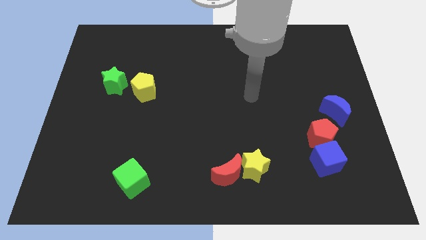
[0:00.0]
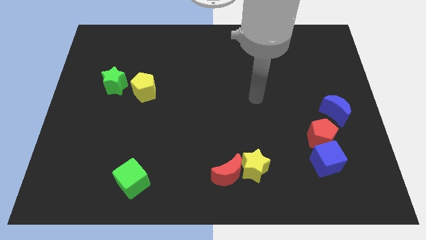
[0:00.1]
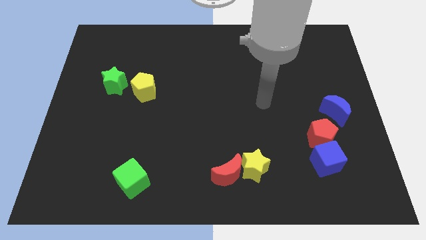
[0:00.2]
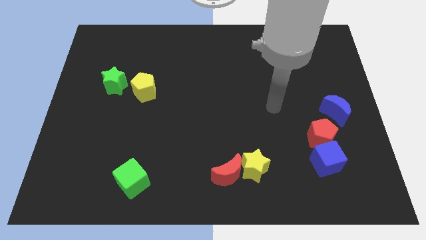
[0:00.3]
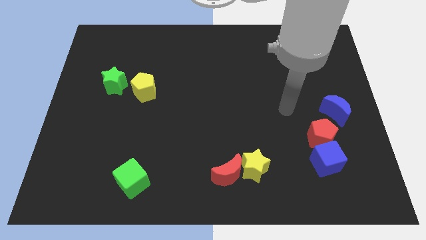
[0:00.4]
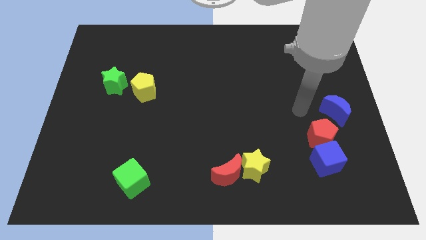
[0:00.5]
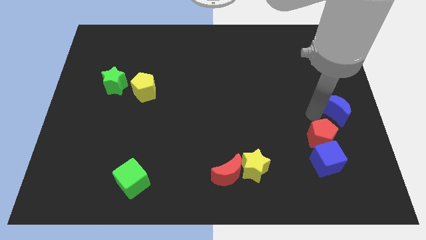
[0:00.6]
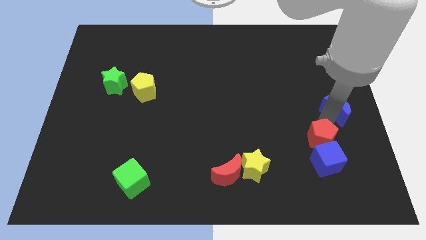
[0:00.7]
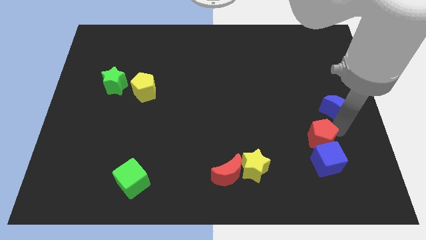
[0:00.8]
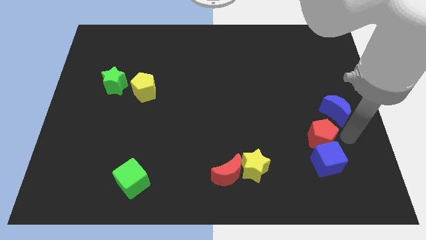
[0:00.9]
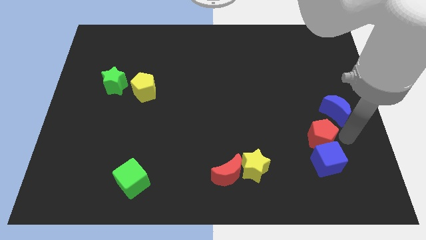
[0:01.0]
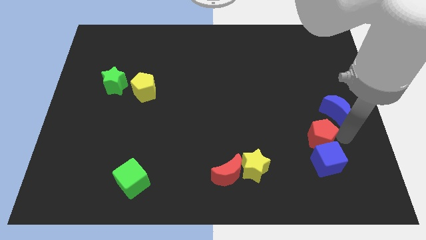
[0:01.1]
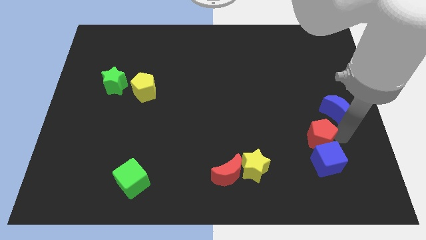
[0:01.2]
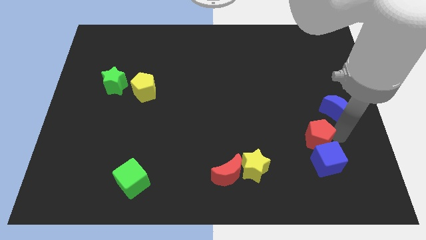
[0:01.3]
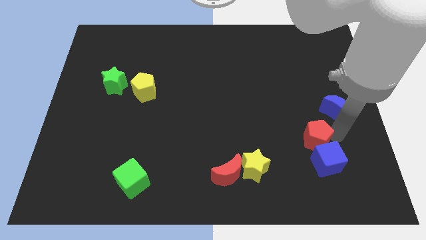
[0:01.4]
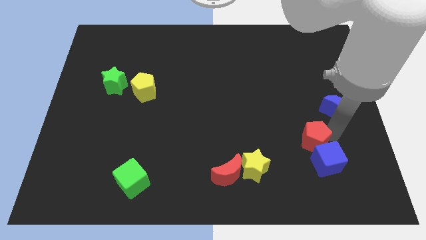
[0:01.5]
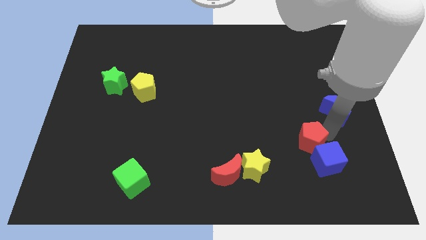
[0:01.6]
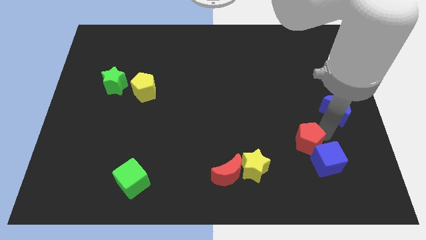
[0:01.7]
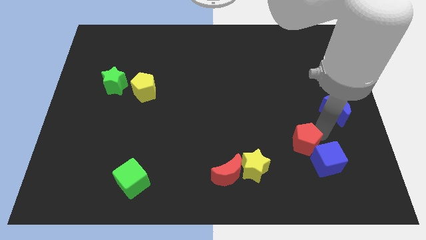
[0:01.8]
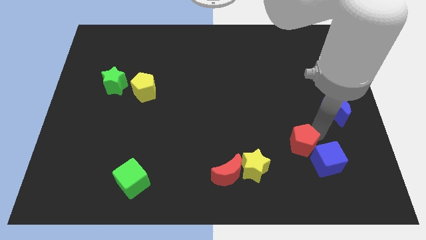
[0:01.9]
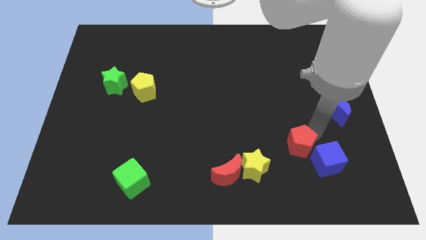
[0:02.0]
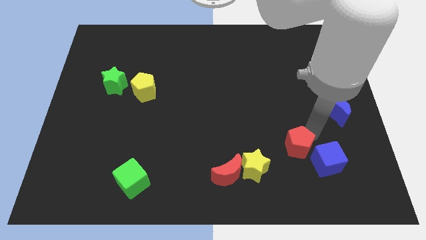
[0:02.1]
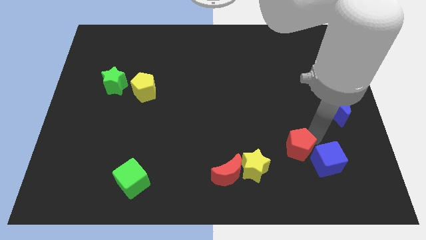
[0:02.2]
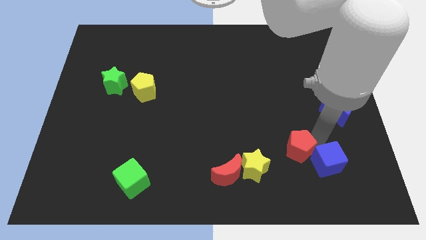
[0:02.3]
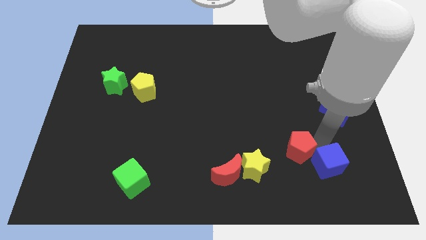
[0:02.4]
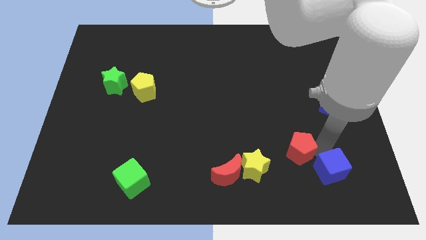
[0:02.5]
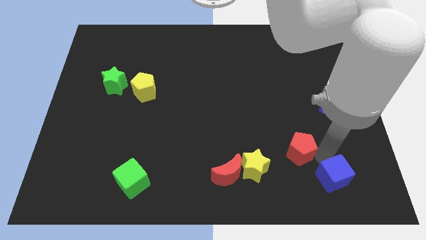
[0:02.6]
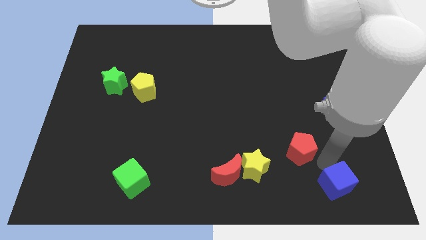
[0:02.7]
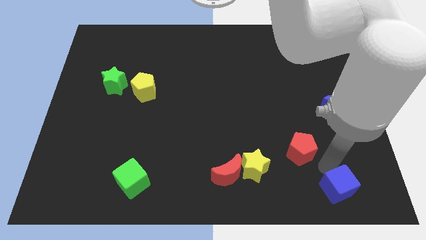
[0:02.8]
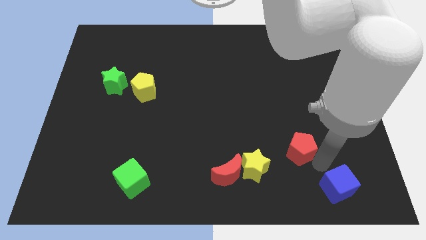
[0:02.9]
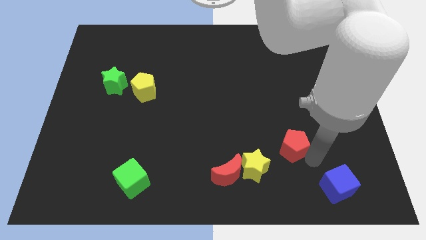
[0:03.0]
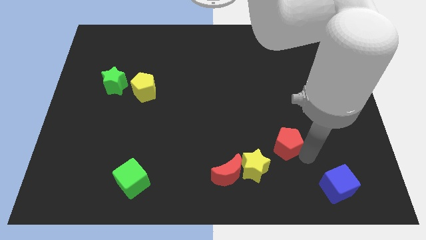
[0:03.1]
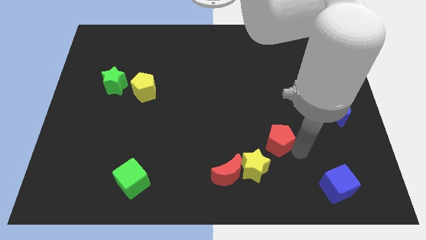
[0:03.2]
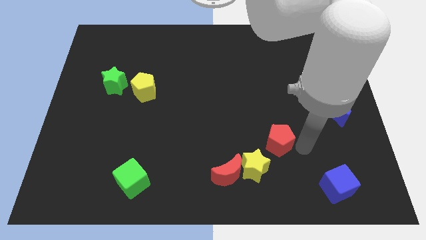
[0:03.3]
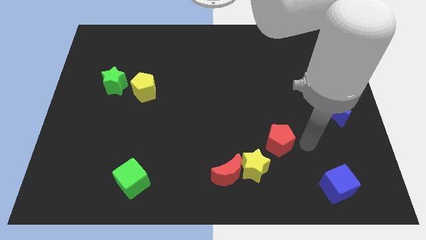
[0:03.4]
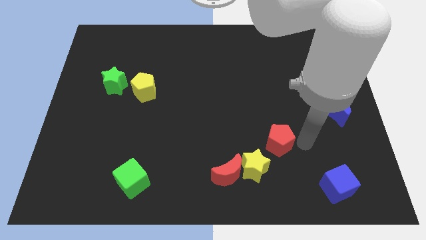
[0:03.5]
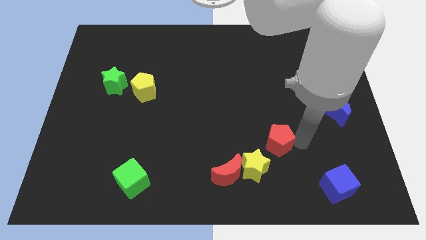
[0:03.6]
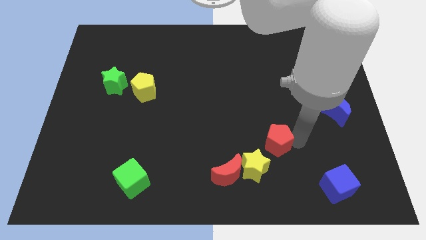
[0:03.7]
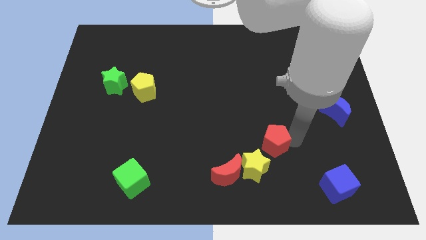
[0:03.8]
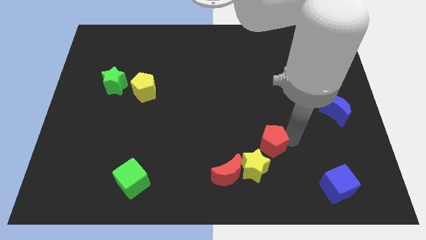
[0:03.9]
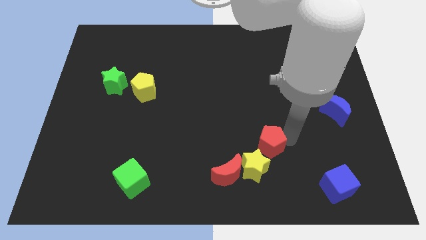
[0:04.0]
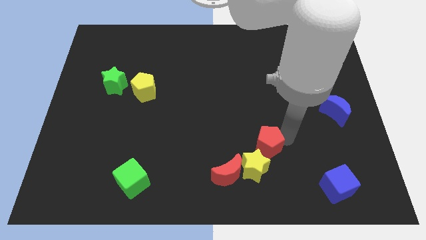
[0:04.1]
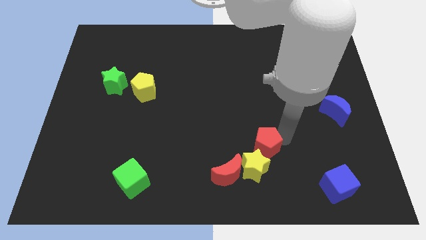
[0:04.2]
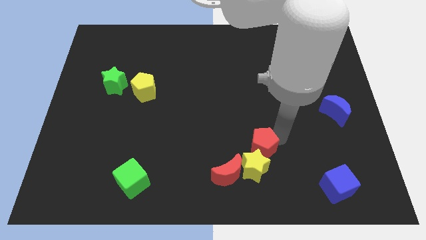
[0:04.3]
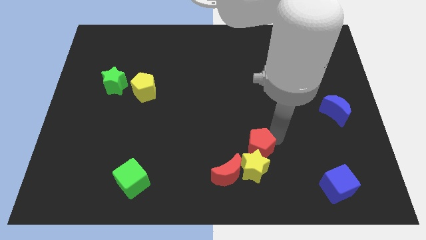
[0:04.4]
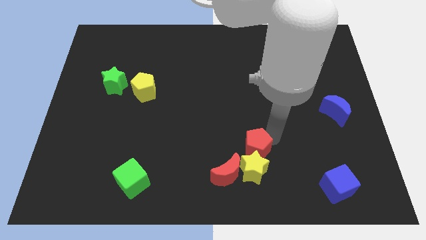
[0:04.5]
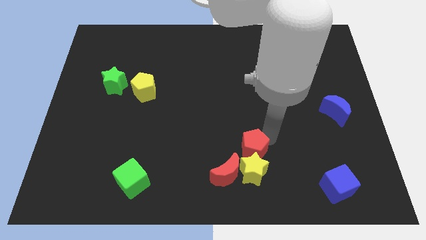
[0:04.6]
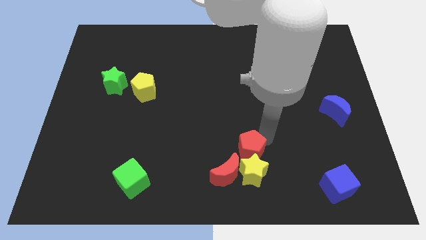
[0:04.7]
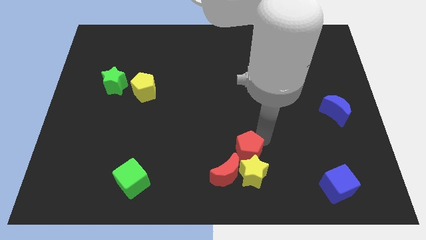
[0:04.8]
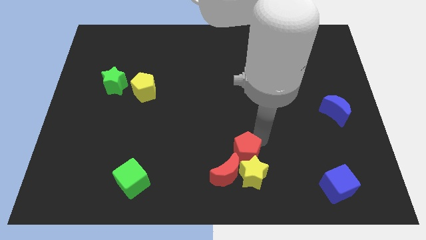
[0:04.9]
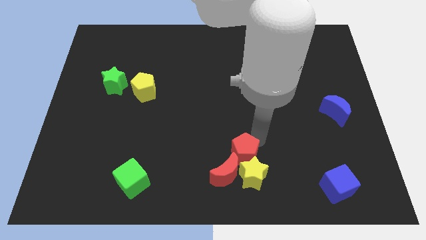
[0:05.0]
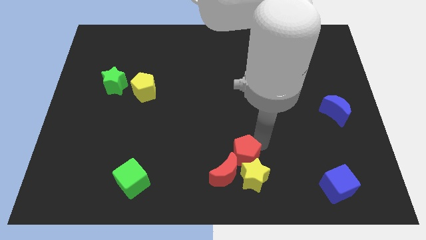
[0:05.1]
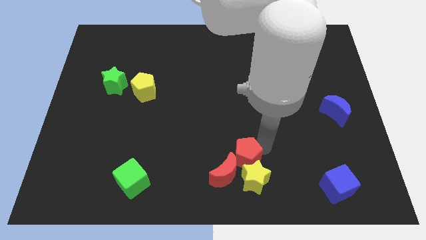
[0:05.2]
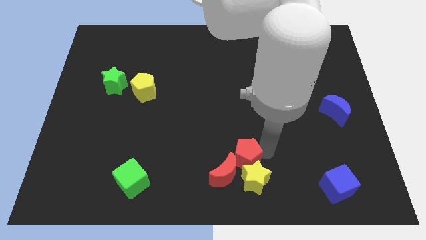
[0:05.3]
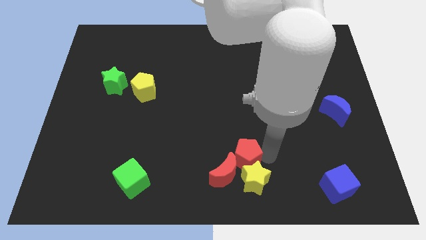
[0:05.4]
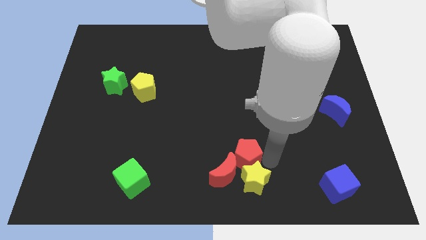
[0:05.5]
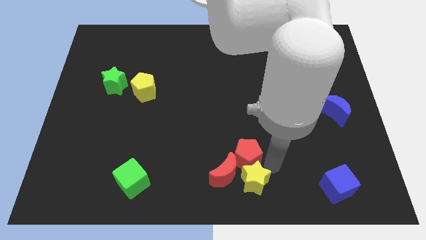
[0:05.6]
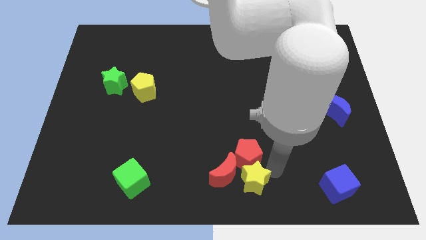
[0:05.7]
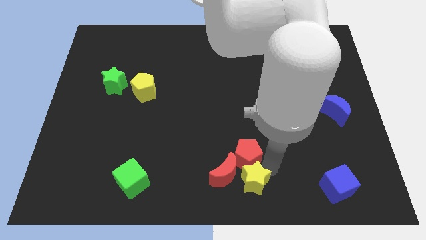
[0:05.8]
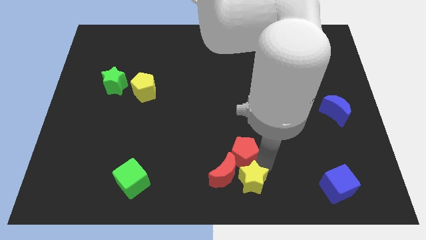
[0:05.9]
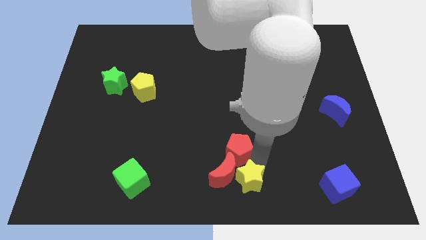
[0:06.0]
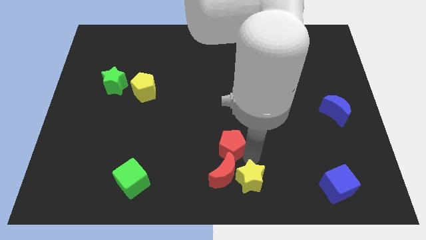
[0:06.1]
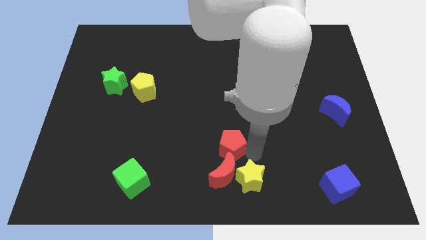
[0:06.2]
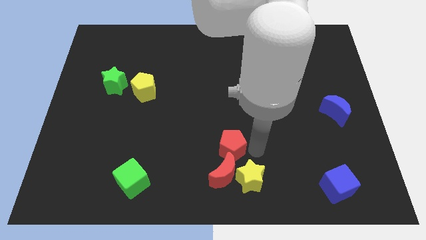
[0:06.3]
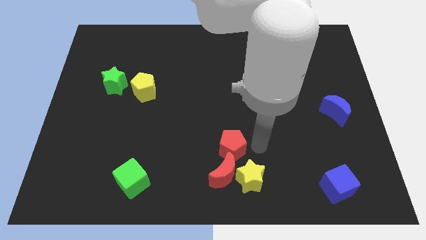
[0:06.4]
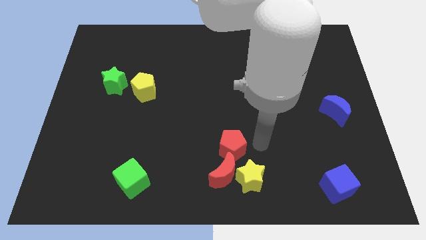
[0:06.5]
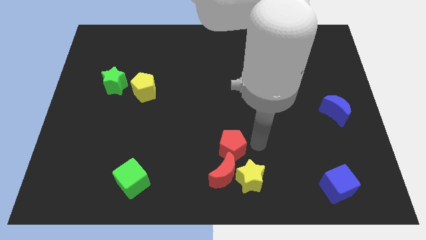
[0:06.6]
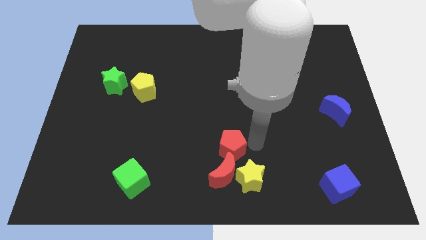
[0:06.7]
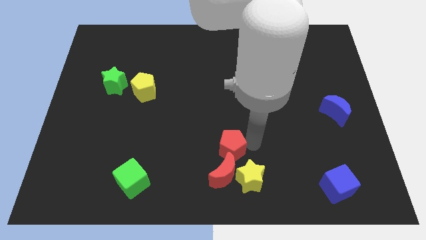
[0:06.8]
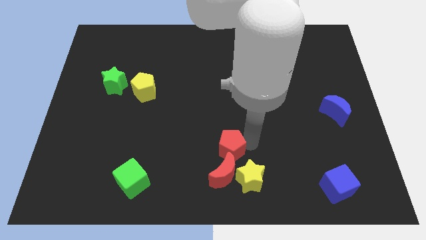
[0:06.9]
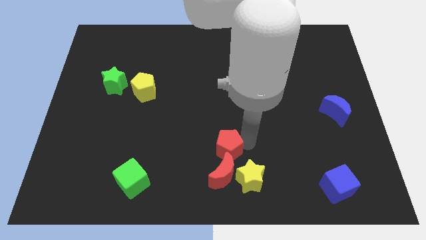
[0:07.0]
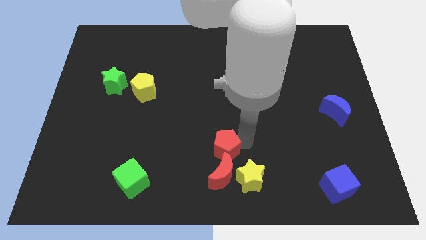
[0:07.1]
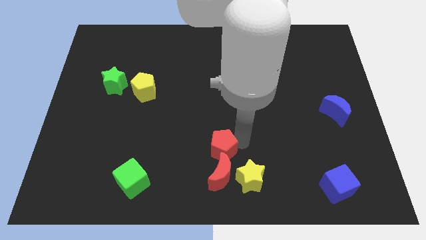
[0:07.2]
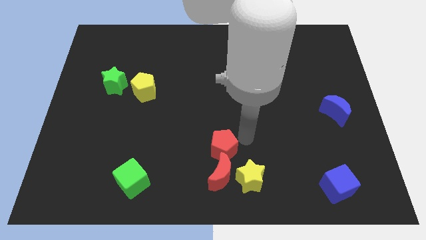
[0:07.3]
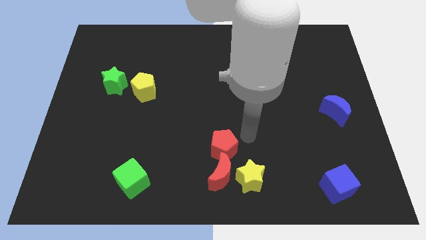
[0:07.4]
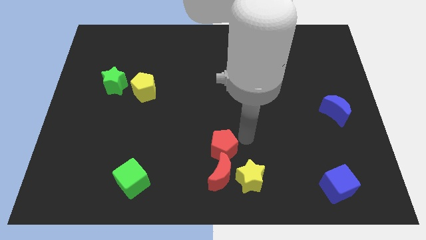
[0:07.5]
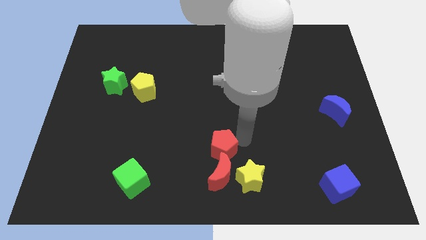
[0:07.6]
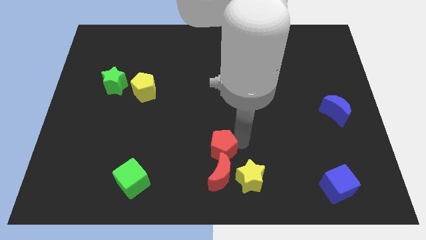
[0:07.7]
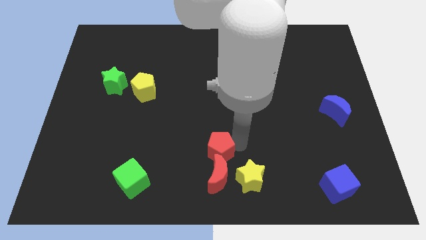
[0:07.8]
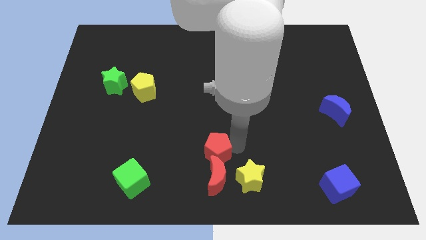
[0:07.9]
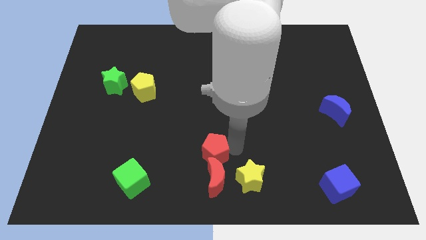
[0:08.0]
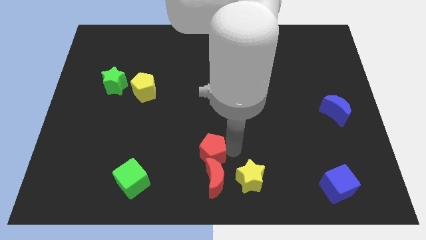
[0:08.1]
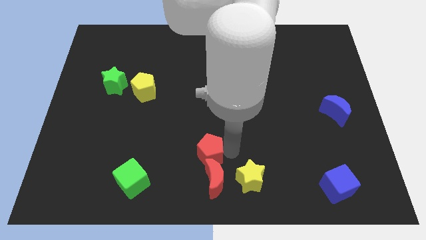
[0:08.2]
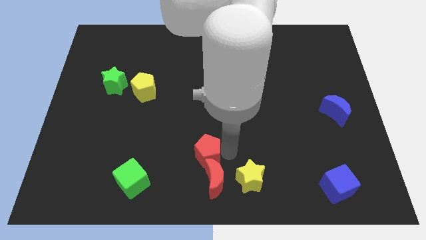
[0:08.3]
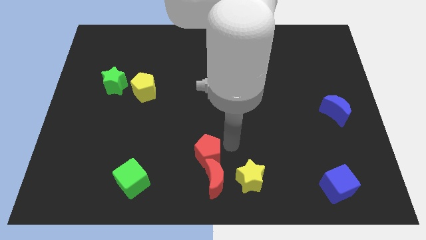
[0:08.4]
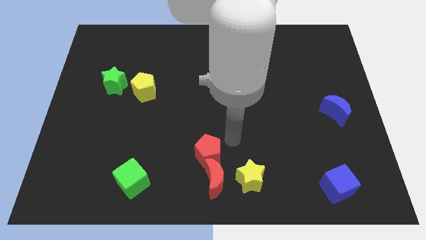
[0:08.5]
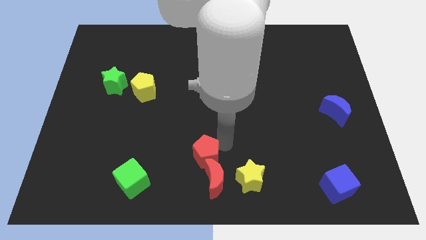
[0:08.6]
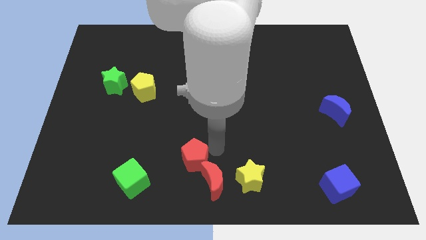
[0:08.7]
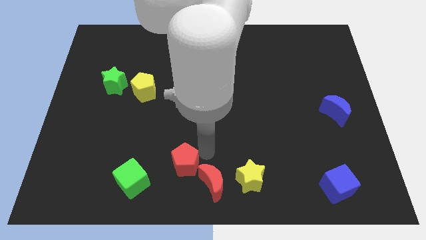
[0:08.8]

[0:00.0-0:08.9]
slide the red pentagon left of the red moon
